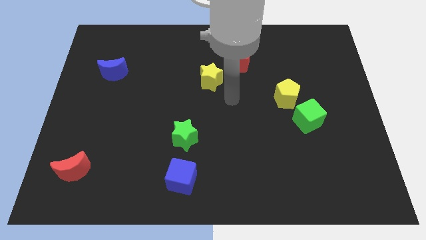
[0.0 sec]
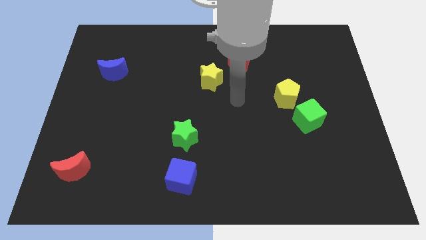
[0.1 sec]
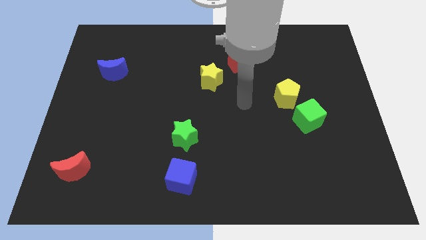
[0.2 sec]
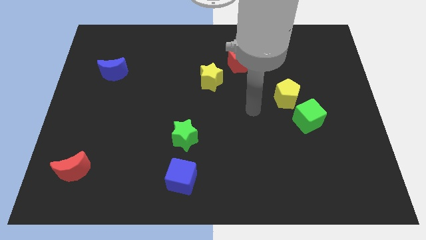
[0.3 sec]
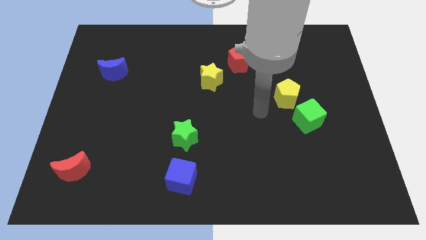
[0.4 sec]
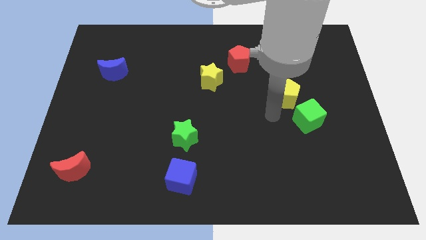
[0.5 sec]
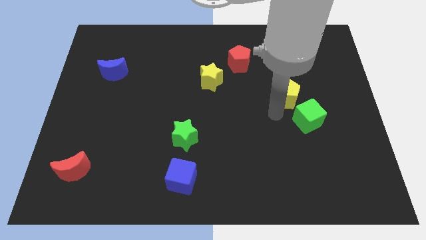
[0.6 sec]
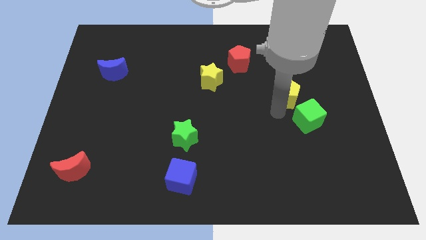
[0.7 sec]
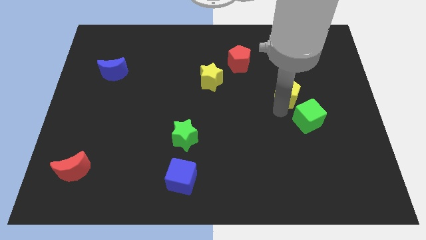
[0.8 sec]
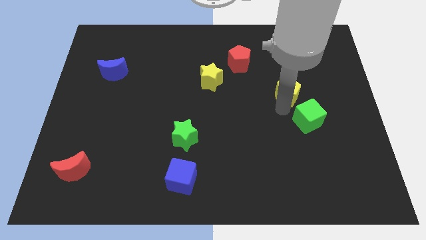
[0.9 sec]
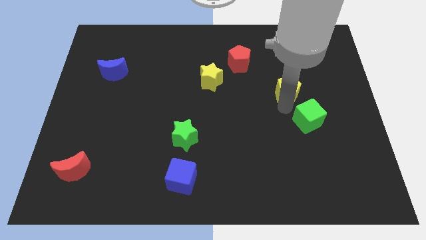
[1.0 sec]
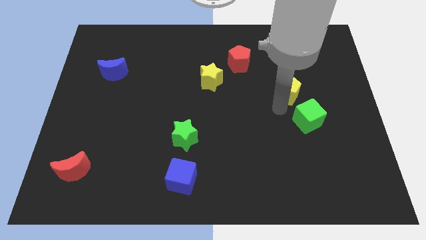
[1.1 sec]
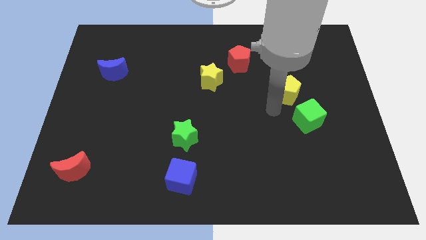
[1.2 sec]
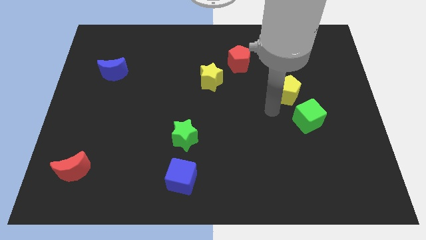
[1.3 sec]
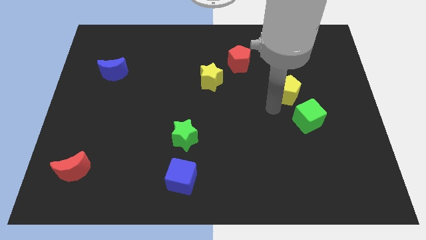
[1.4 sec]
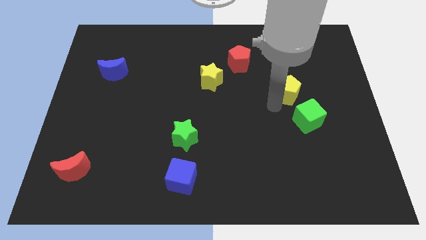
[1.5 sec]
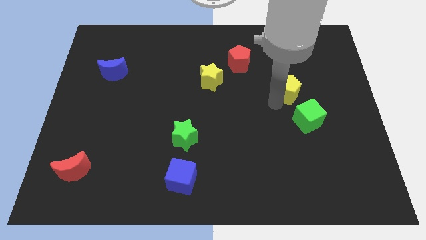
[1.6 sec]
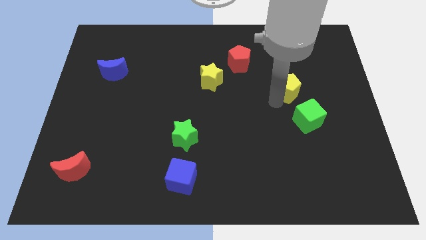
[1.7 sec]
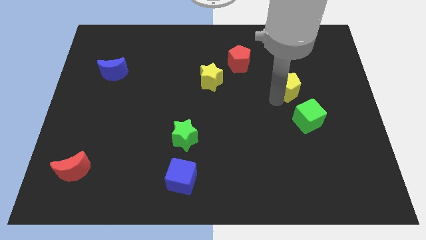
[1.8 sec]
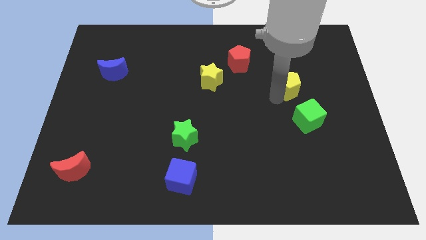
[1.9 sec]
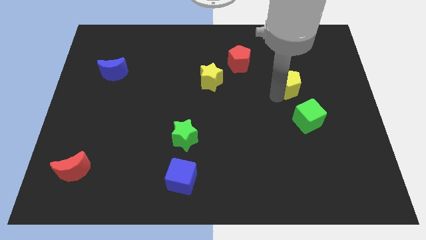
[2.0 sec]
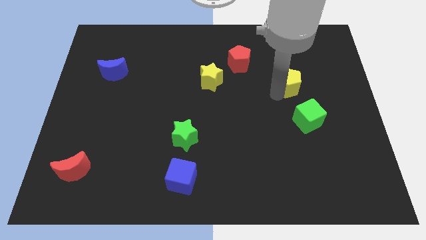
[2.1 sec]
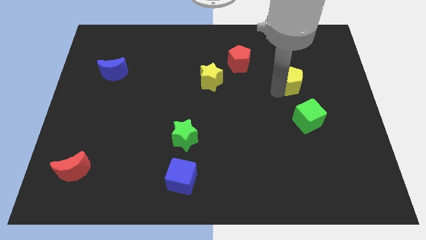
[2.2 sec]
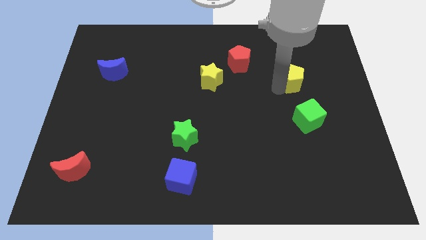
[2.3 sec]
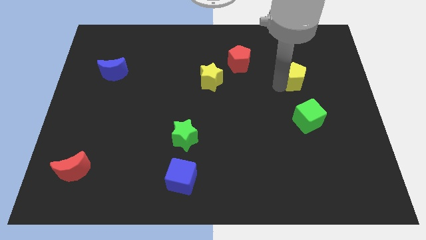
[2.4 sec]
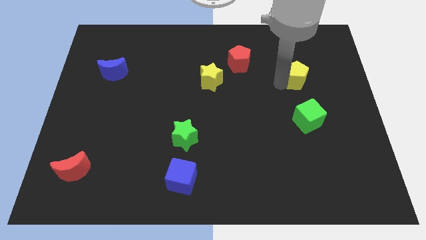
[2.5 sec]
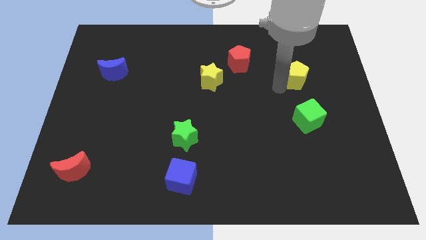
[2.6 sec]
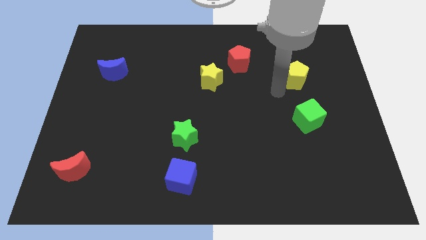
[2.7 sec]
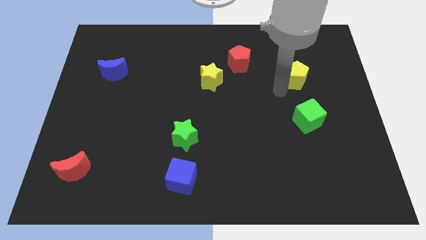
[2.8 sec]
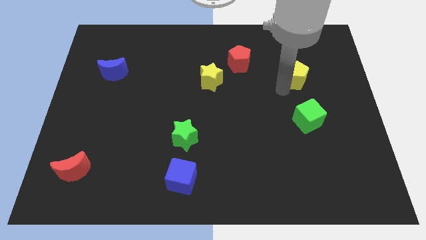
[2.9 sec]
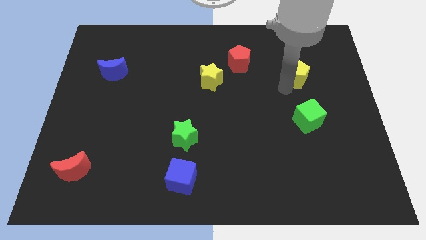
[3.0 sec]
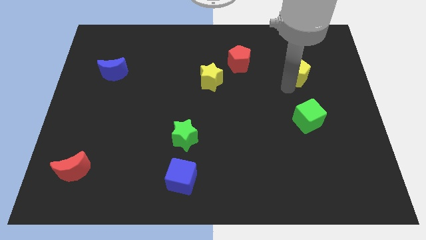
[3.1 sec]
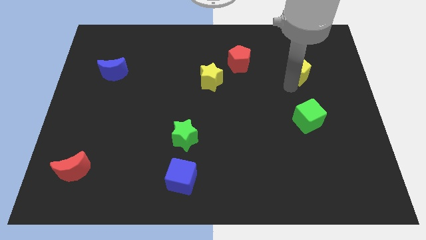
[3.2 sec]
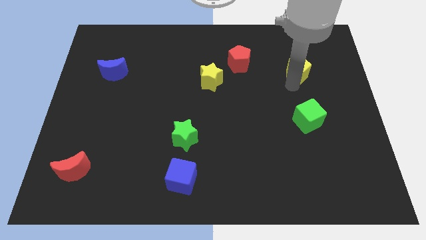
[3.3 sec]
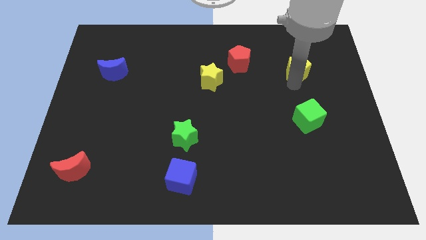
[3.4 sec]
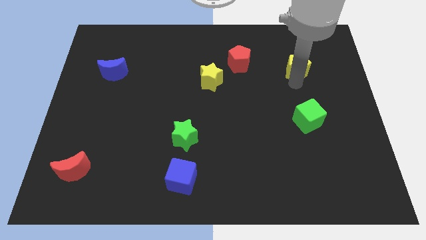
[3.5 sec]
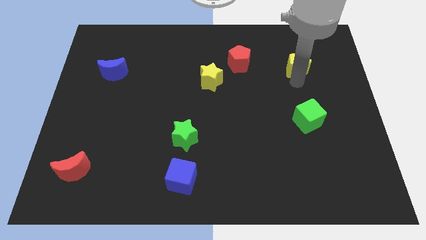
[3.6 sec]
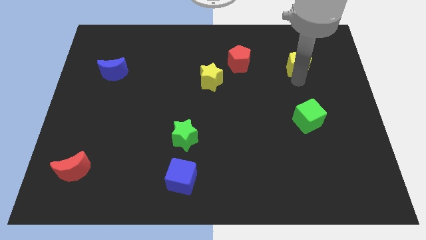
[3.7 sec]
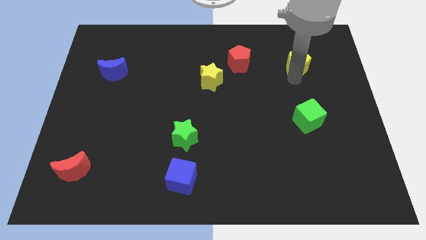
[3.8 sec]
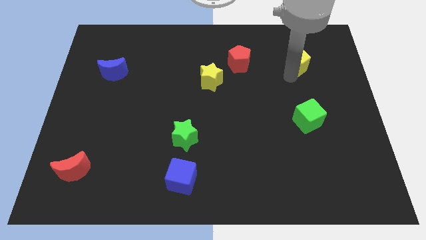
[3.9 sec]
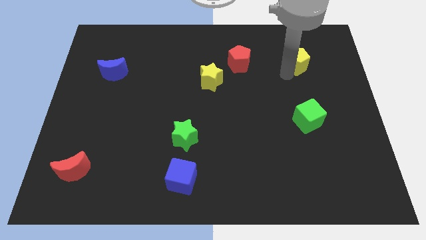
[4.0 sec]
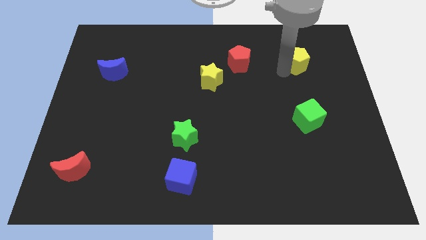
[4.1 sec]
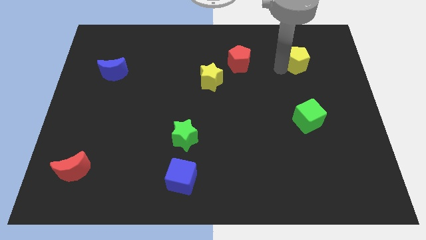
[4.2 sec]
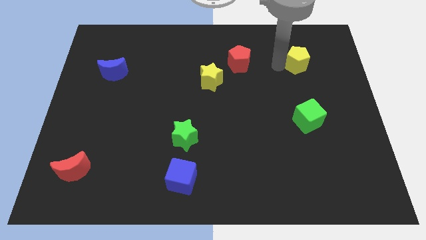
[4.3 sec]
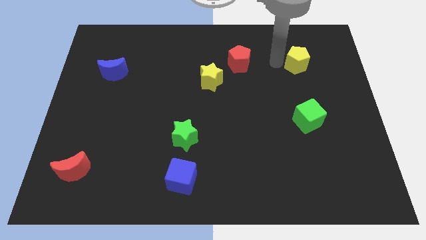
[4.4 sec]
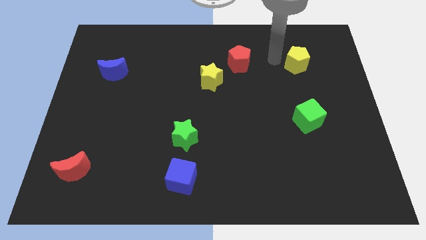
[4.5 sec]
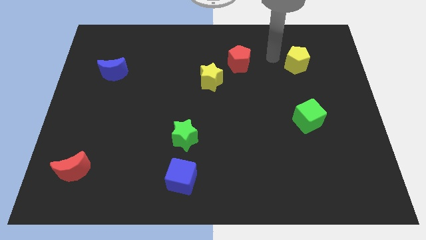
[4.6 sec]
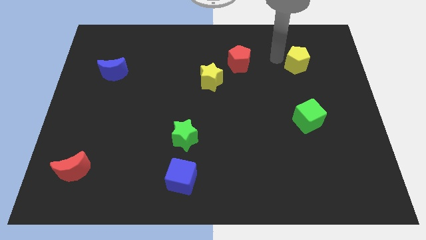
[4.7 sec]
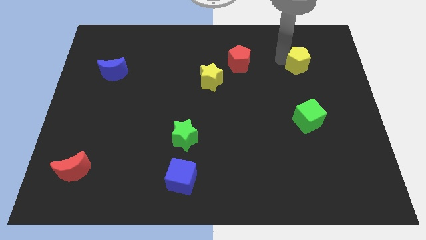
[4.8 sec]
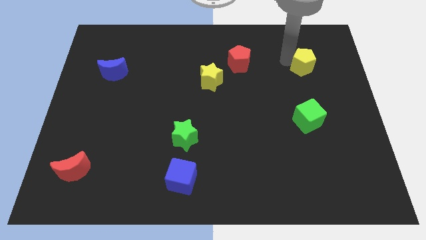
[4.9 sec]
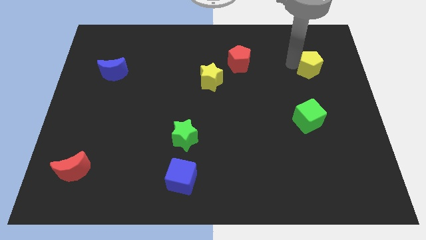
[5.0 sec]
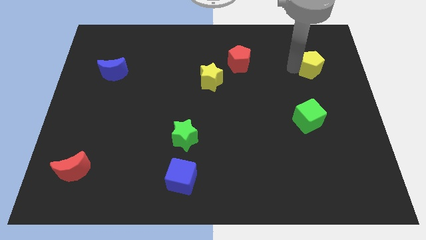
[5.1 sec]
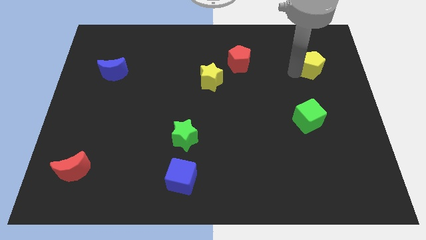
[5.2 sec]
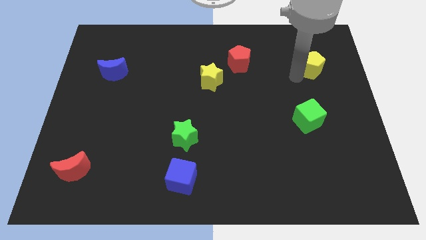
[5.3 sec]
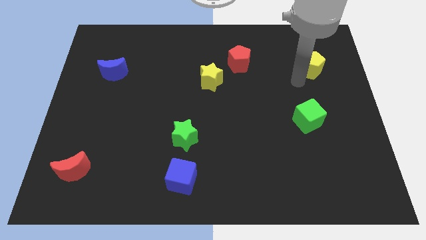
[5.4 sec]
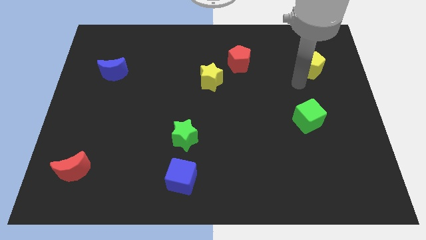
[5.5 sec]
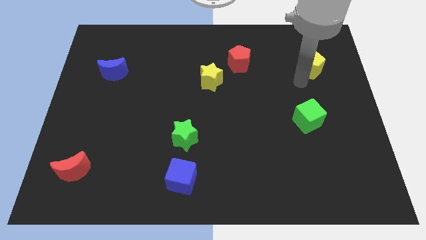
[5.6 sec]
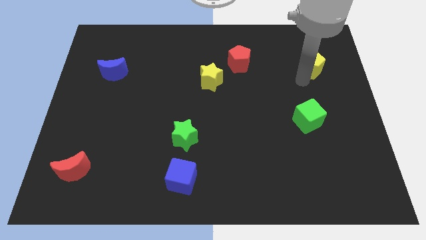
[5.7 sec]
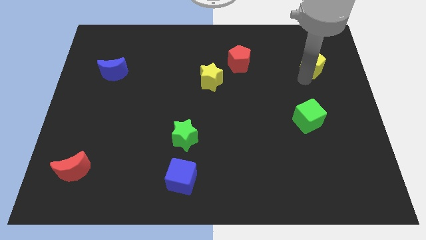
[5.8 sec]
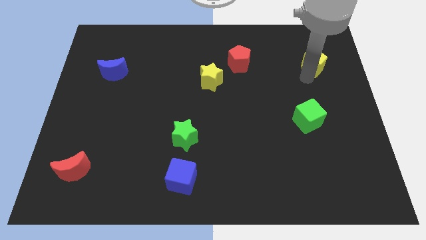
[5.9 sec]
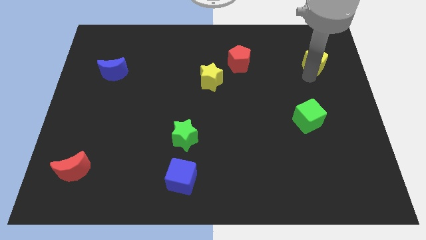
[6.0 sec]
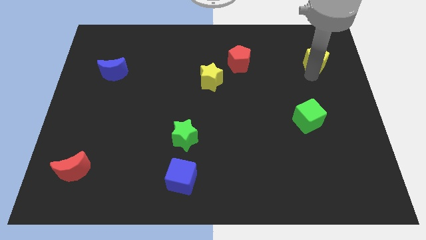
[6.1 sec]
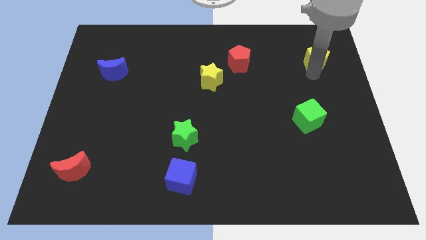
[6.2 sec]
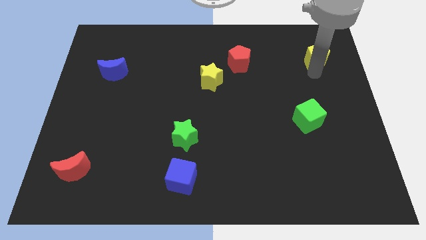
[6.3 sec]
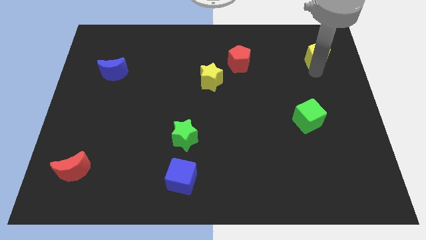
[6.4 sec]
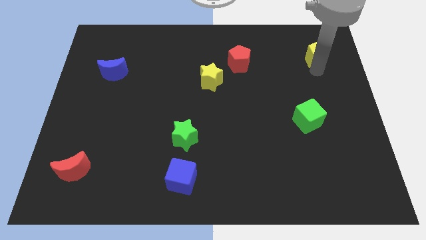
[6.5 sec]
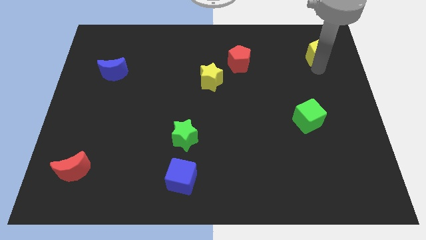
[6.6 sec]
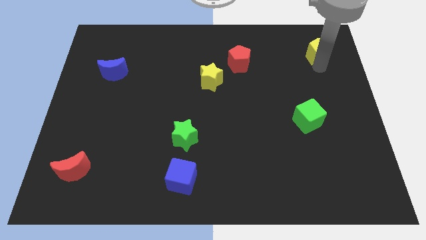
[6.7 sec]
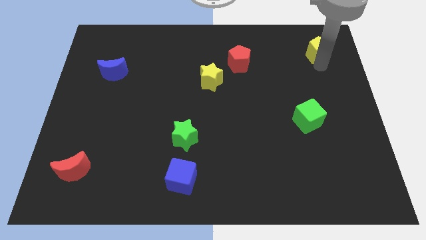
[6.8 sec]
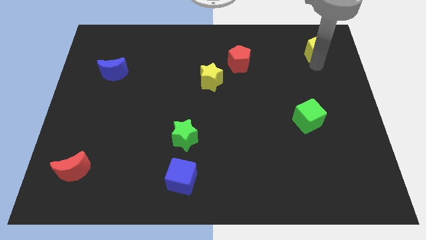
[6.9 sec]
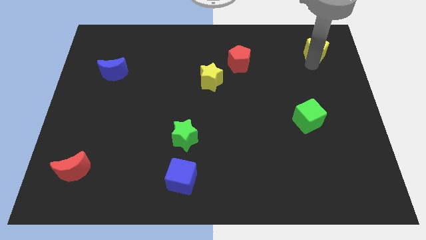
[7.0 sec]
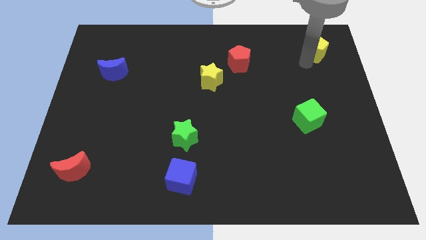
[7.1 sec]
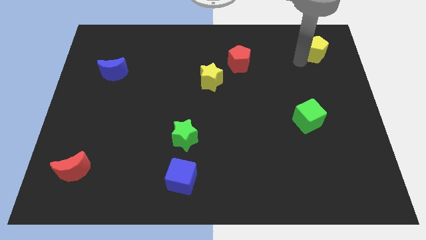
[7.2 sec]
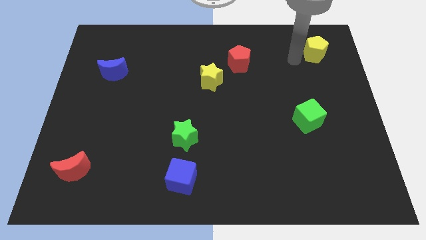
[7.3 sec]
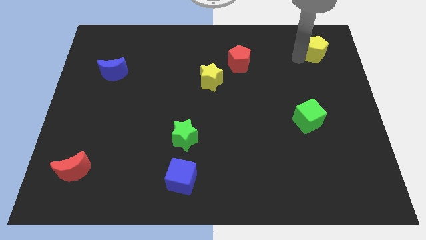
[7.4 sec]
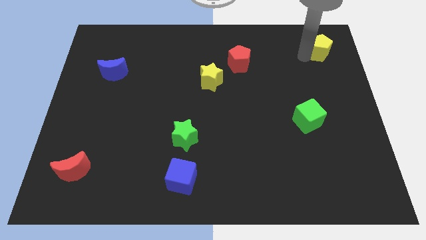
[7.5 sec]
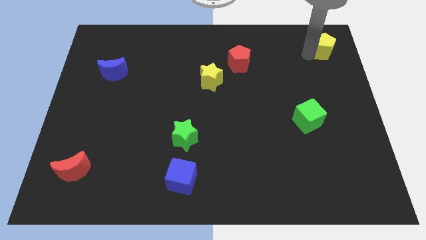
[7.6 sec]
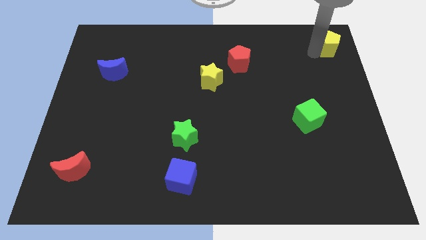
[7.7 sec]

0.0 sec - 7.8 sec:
put the yellow pentagon to the upper right corner
